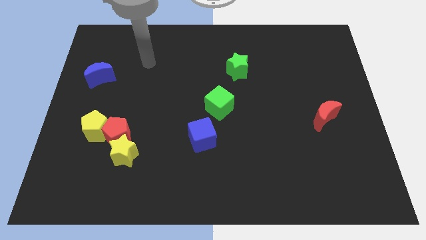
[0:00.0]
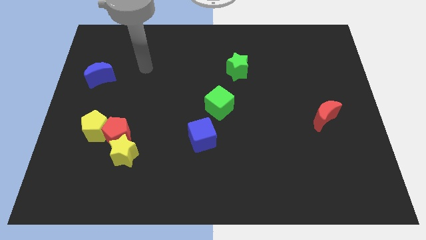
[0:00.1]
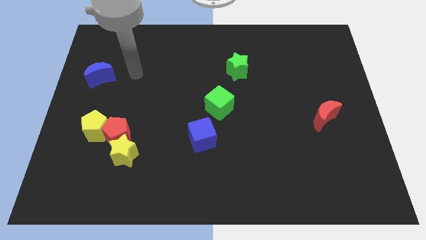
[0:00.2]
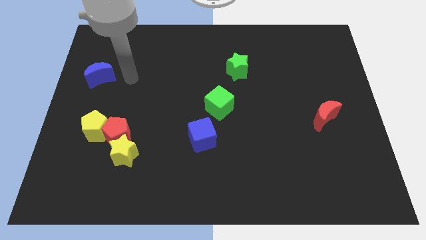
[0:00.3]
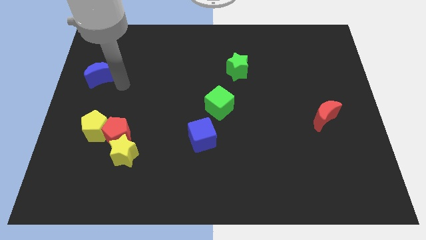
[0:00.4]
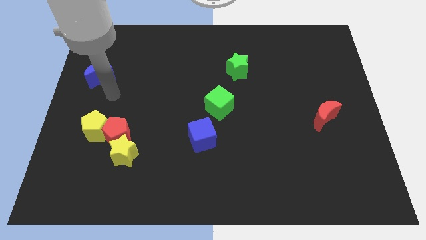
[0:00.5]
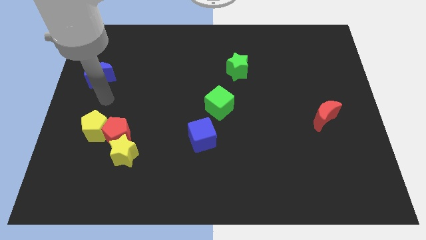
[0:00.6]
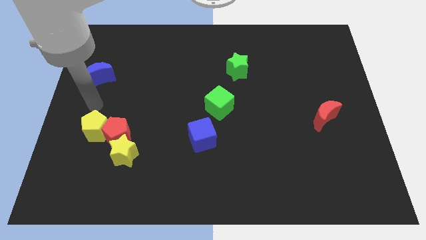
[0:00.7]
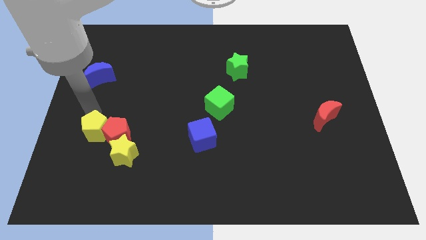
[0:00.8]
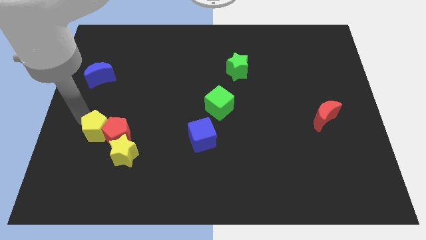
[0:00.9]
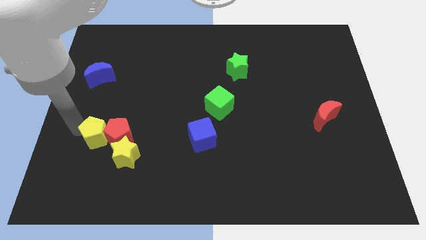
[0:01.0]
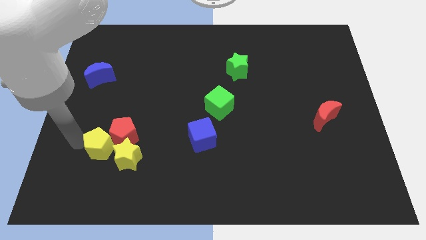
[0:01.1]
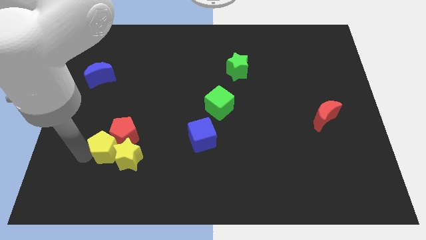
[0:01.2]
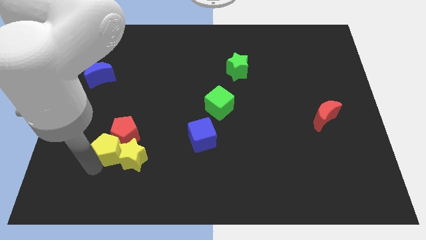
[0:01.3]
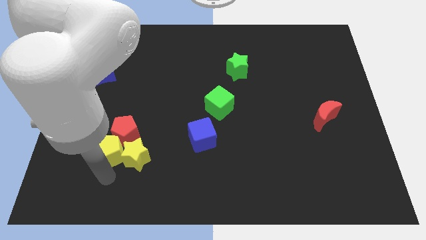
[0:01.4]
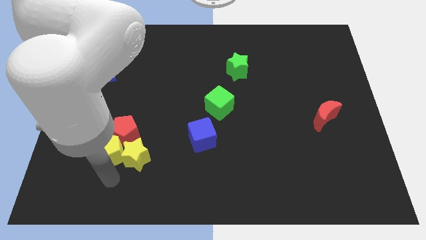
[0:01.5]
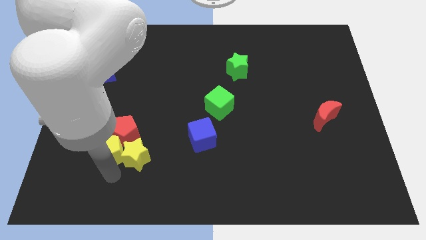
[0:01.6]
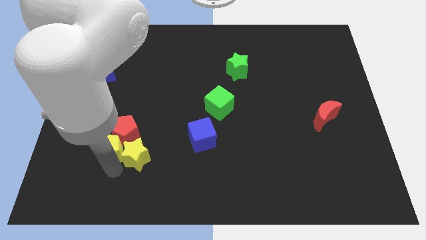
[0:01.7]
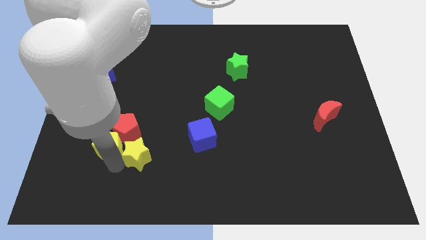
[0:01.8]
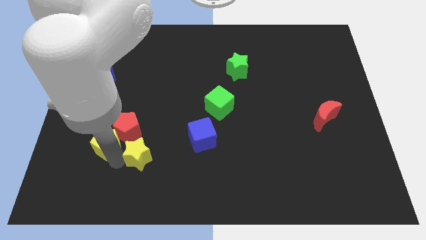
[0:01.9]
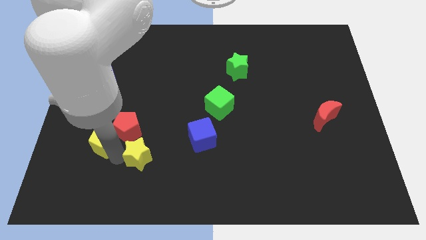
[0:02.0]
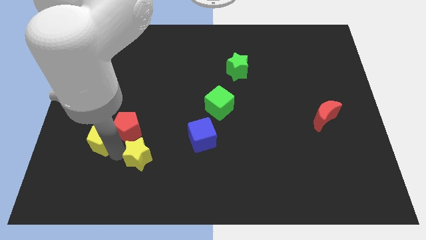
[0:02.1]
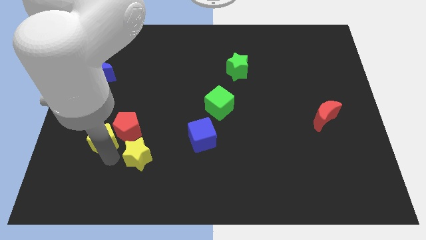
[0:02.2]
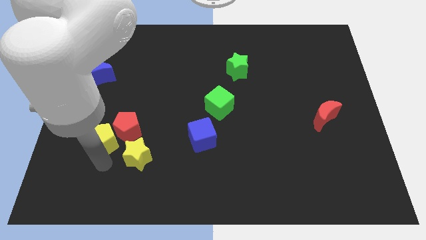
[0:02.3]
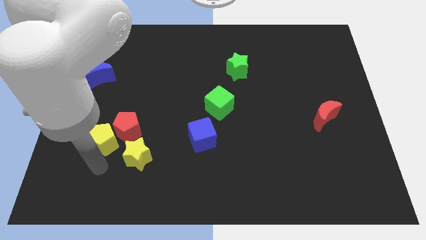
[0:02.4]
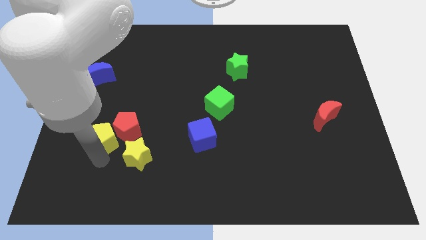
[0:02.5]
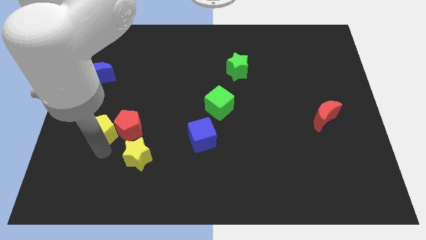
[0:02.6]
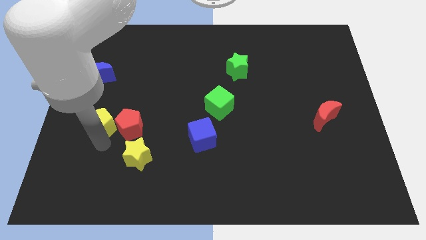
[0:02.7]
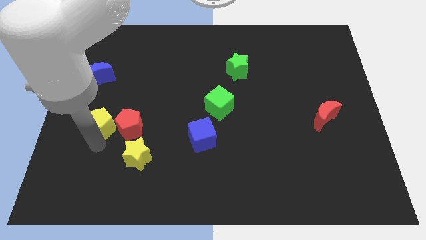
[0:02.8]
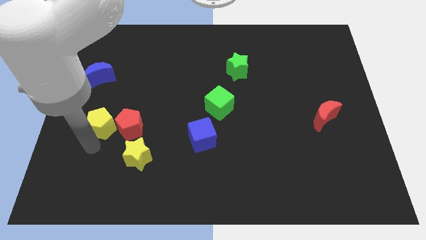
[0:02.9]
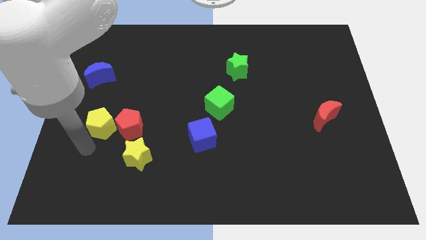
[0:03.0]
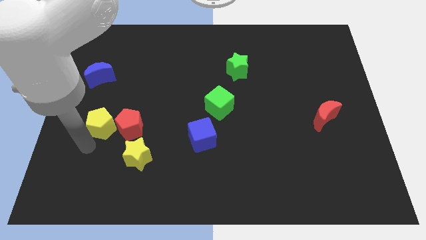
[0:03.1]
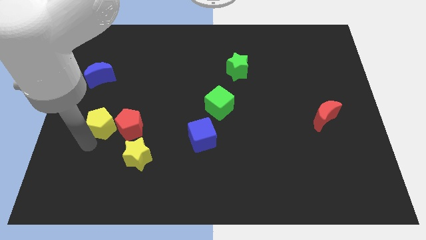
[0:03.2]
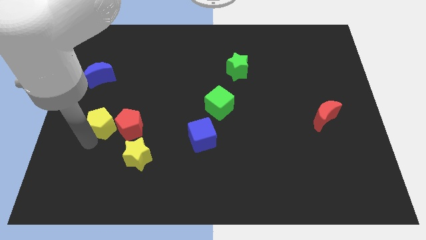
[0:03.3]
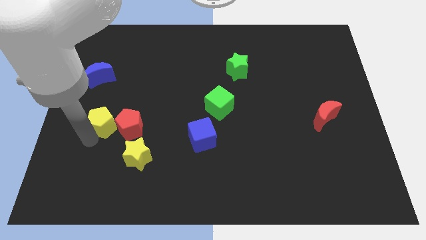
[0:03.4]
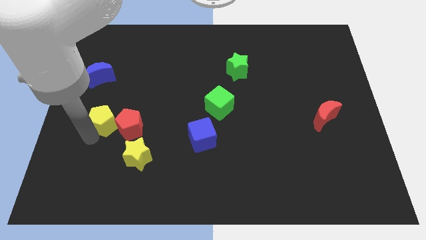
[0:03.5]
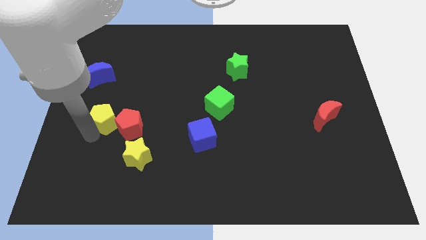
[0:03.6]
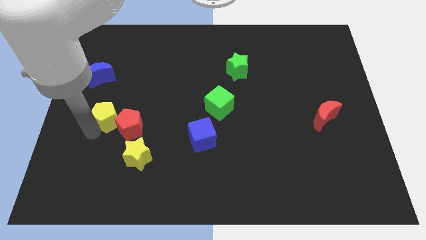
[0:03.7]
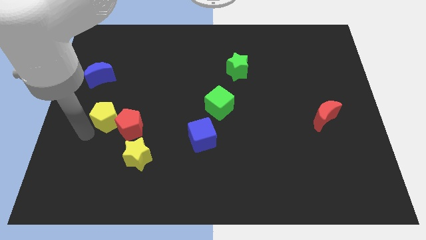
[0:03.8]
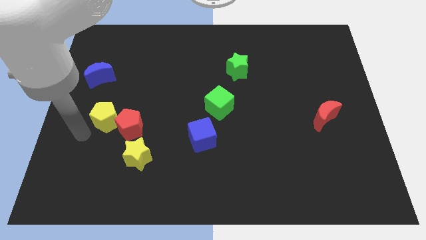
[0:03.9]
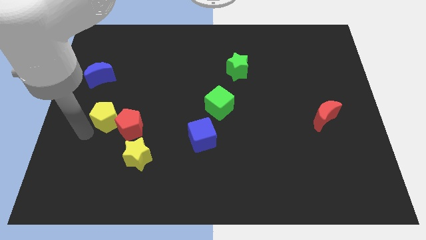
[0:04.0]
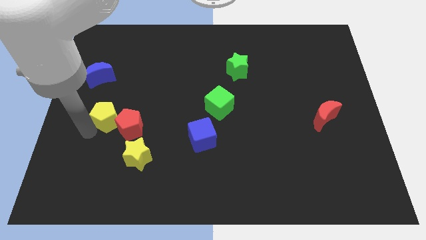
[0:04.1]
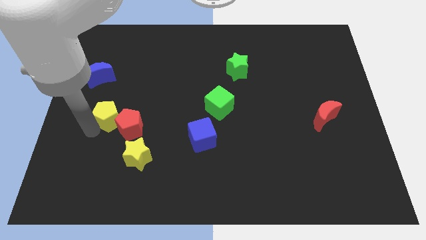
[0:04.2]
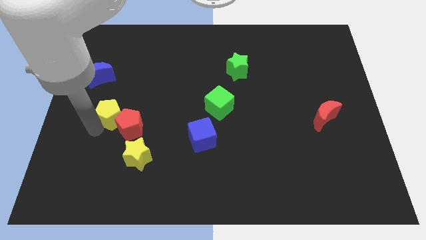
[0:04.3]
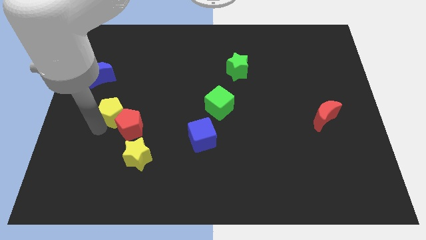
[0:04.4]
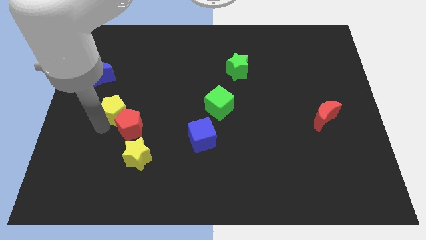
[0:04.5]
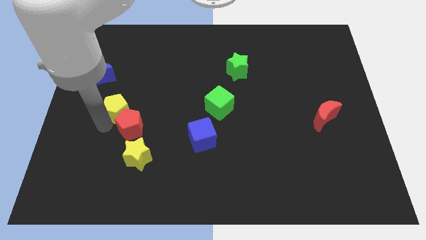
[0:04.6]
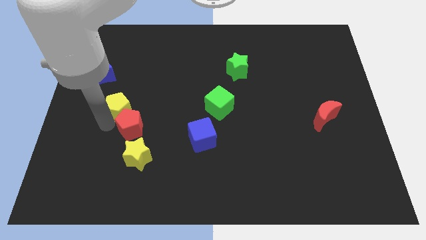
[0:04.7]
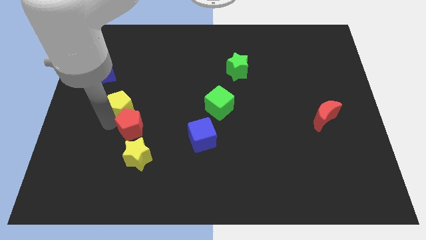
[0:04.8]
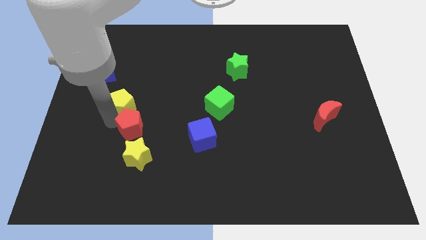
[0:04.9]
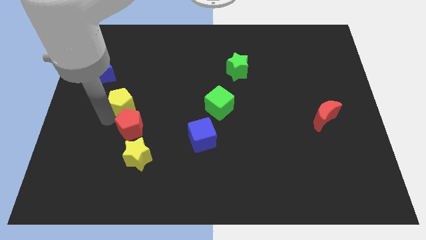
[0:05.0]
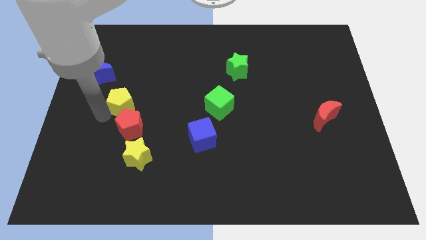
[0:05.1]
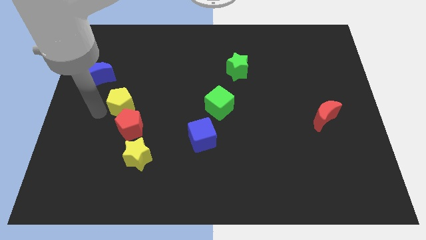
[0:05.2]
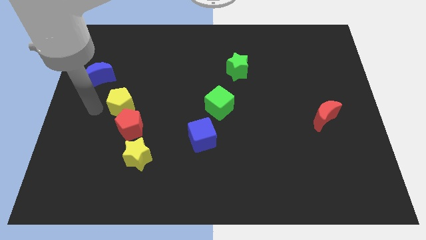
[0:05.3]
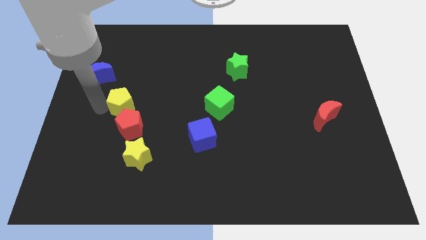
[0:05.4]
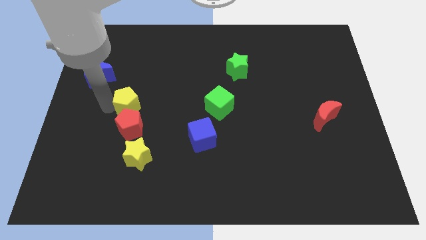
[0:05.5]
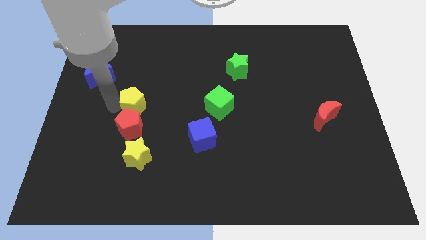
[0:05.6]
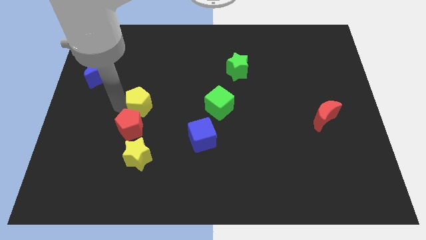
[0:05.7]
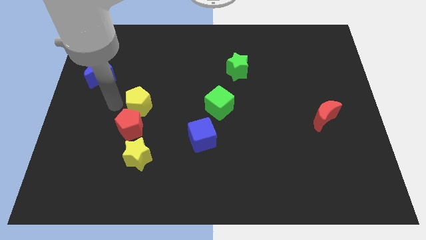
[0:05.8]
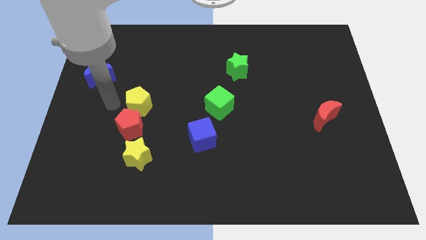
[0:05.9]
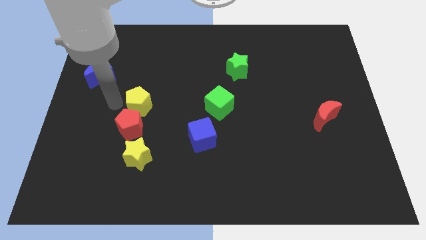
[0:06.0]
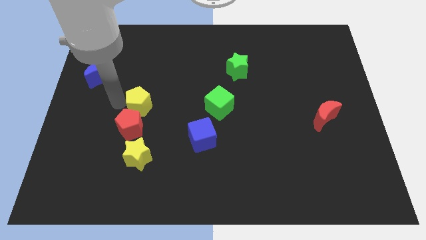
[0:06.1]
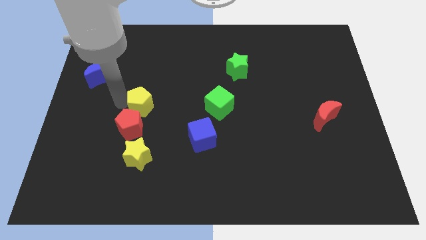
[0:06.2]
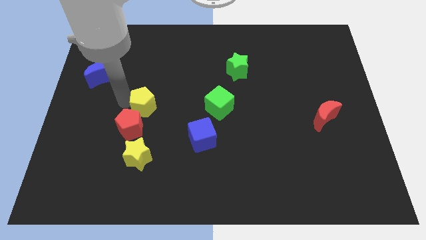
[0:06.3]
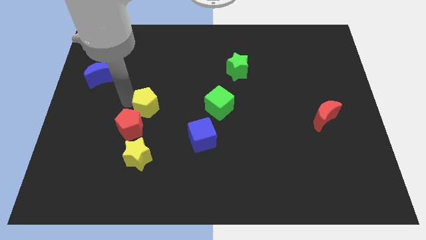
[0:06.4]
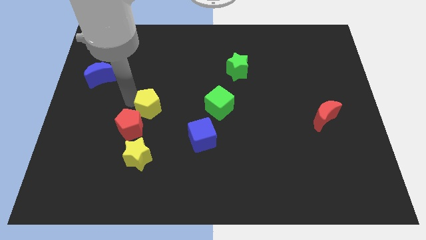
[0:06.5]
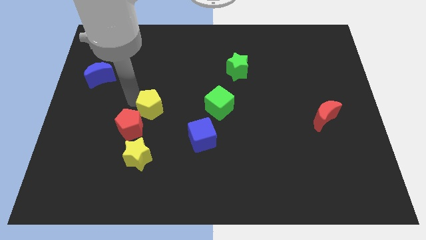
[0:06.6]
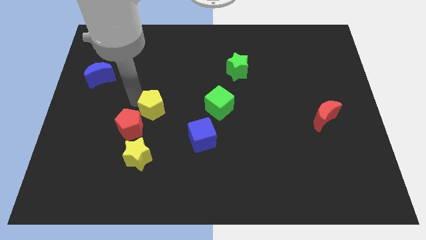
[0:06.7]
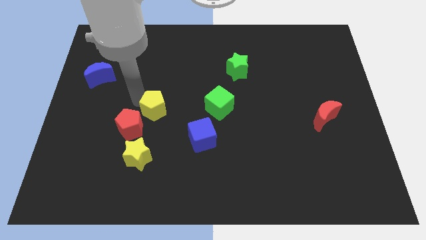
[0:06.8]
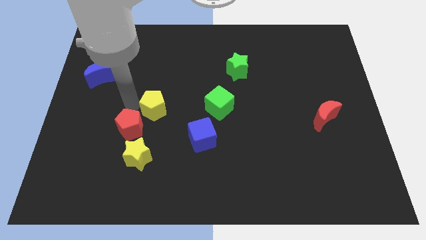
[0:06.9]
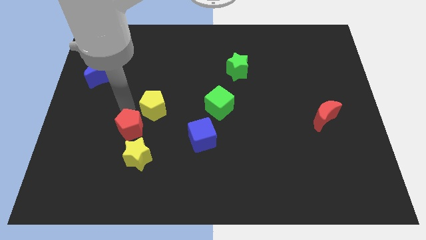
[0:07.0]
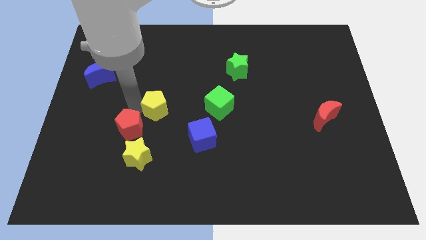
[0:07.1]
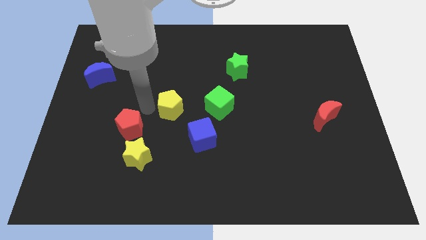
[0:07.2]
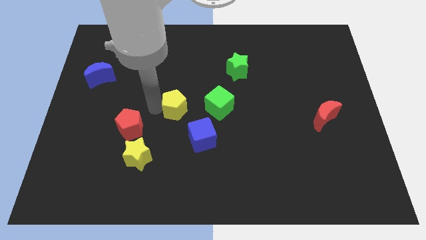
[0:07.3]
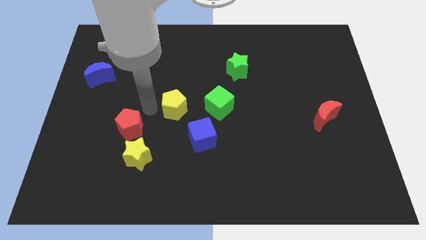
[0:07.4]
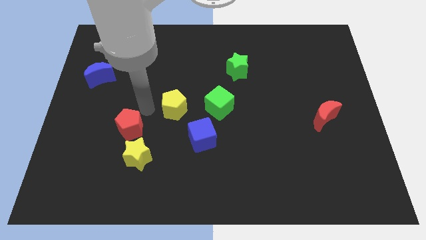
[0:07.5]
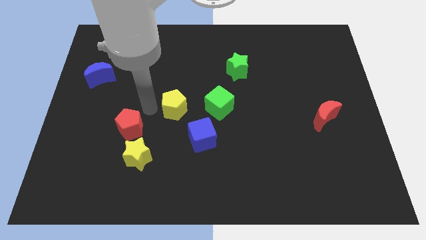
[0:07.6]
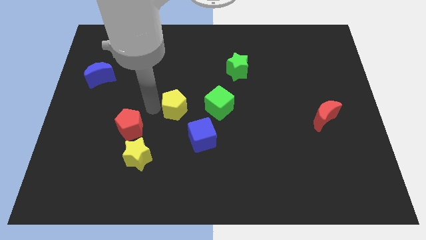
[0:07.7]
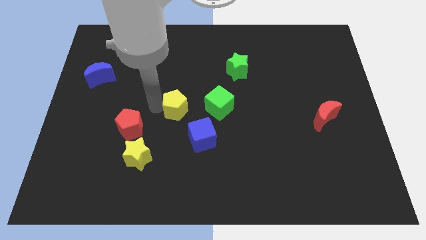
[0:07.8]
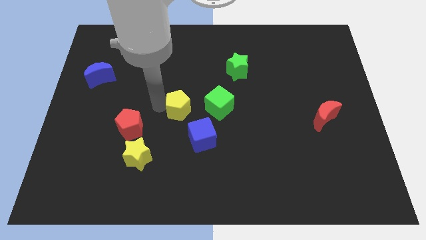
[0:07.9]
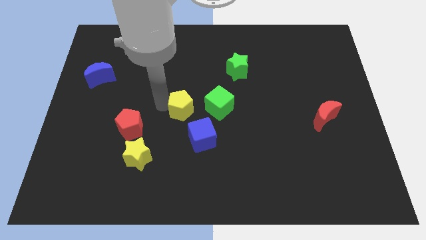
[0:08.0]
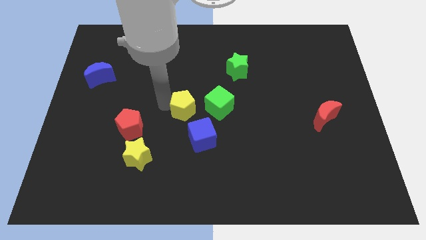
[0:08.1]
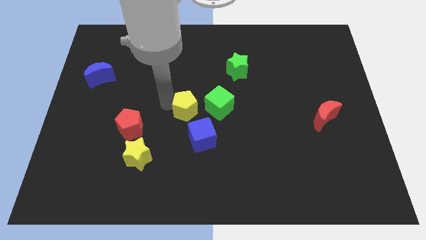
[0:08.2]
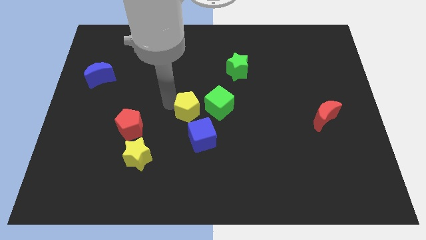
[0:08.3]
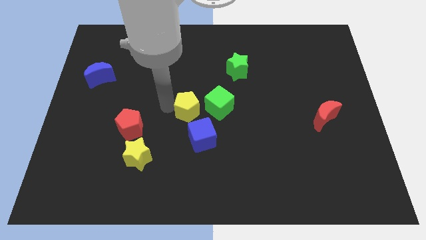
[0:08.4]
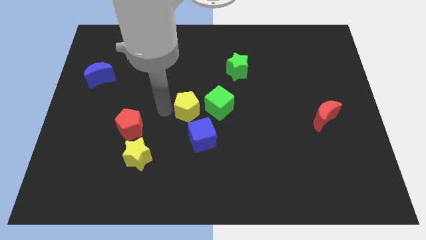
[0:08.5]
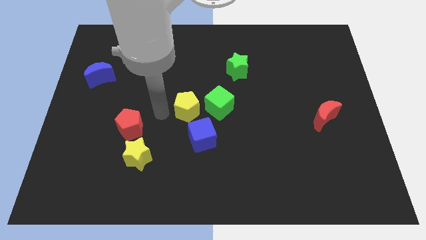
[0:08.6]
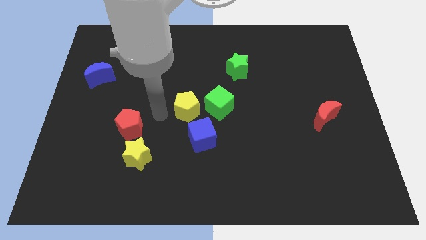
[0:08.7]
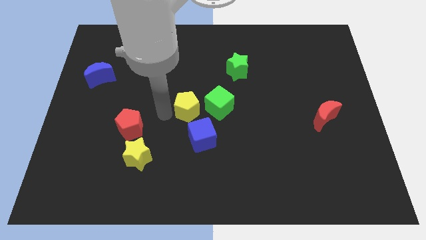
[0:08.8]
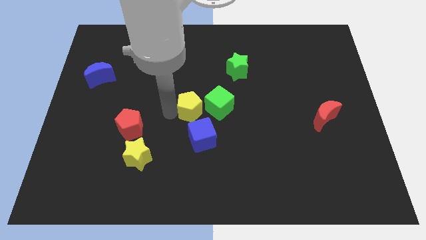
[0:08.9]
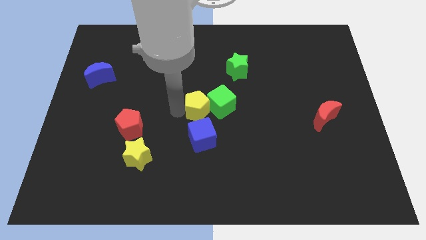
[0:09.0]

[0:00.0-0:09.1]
slide the yellow pentagon towards the green cube
